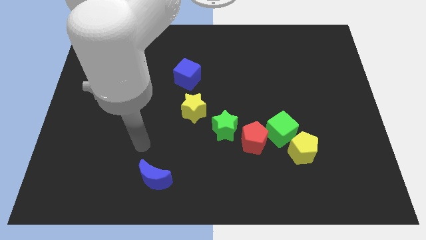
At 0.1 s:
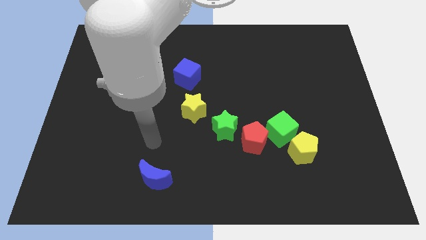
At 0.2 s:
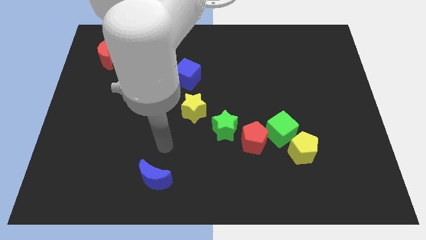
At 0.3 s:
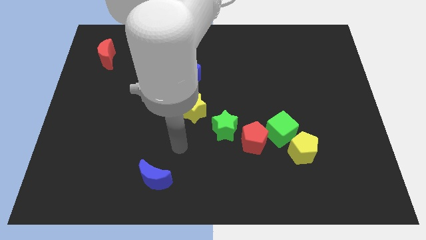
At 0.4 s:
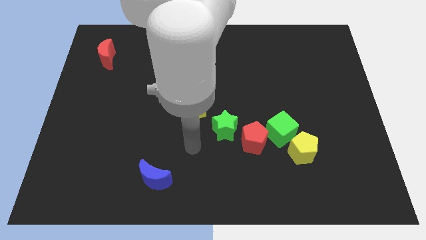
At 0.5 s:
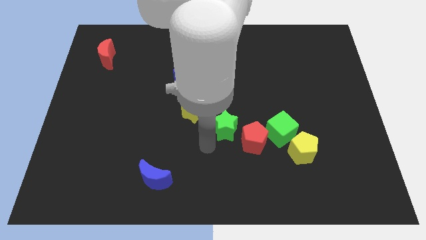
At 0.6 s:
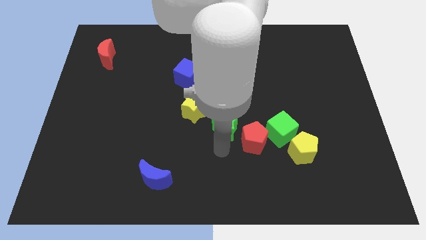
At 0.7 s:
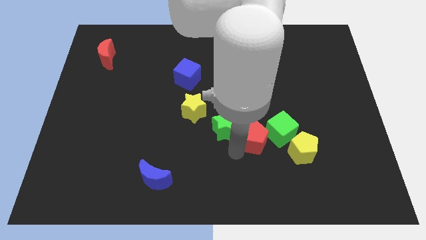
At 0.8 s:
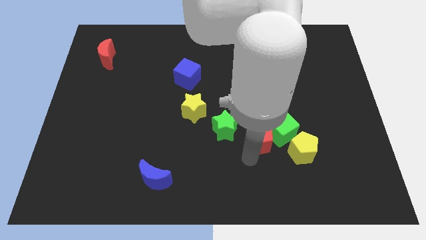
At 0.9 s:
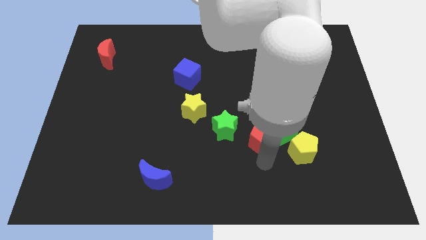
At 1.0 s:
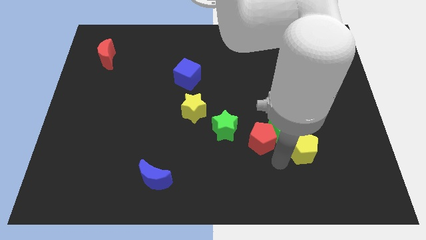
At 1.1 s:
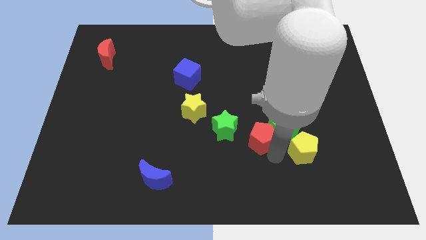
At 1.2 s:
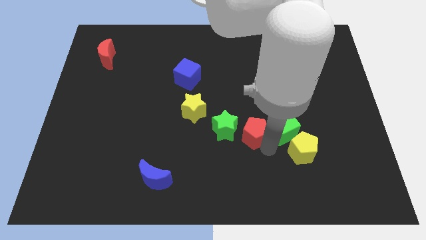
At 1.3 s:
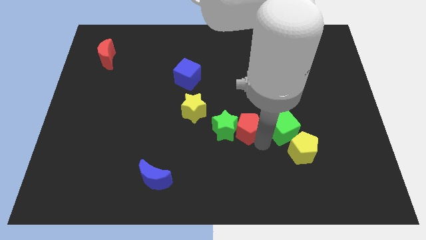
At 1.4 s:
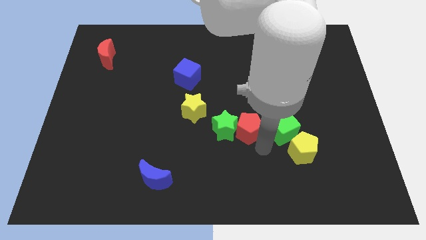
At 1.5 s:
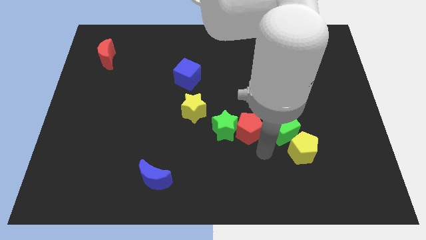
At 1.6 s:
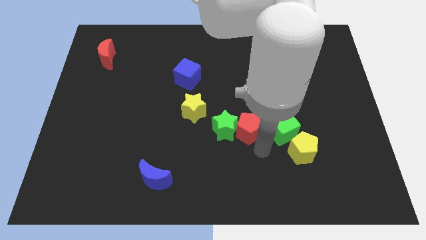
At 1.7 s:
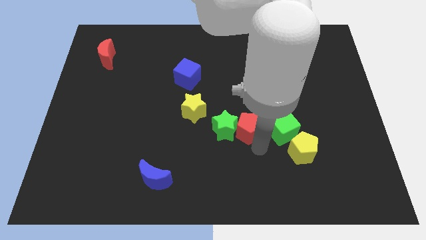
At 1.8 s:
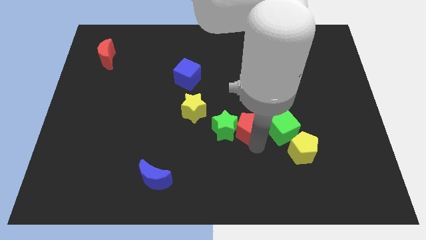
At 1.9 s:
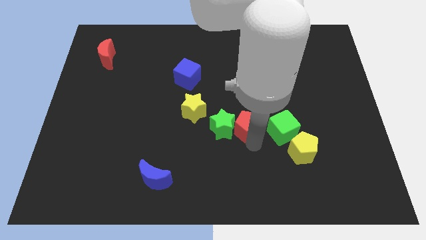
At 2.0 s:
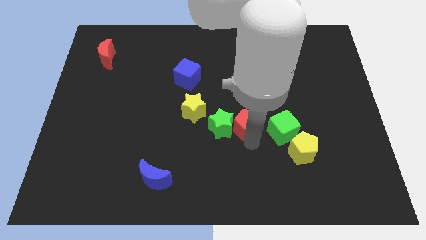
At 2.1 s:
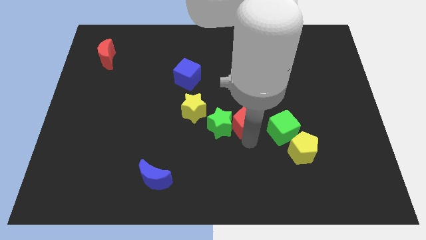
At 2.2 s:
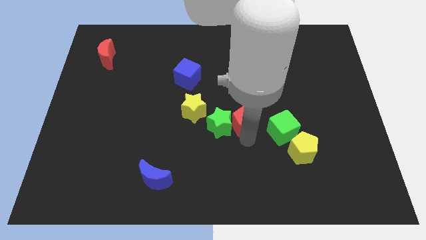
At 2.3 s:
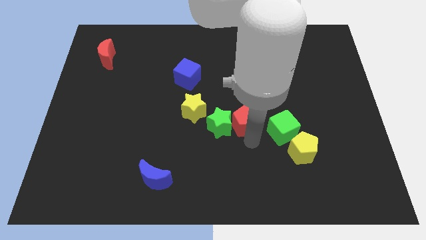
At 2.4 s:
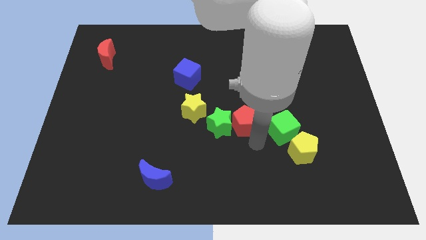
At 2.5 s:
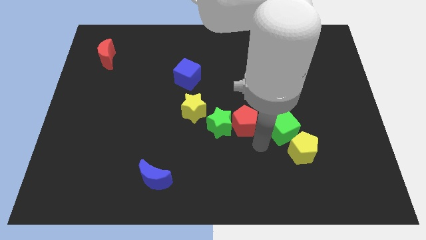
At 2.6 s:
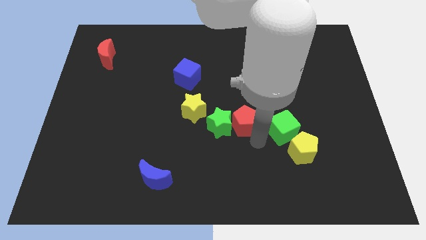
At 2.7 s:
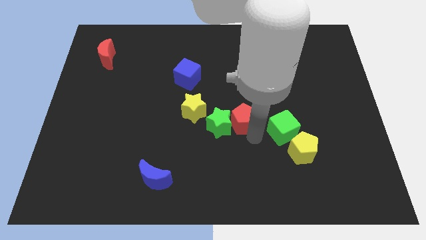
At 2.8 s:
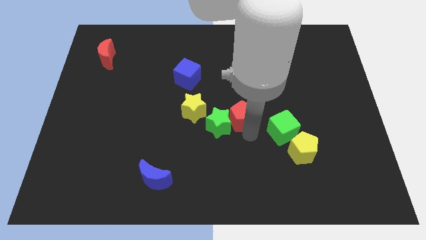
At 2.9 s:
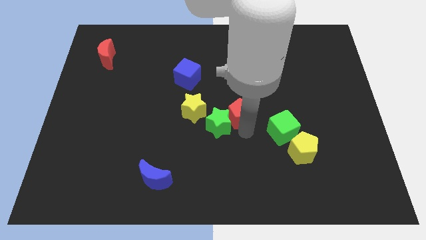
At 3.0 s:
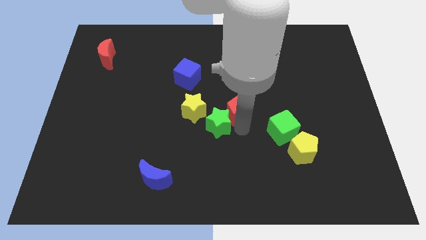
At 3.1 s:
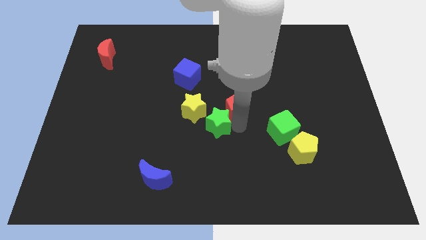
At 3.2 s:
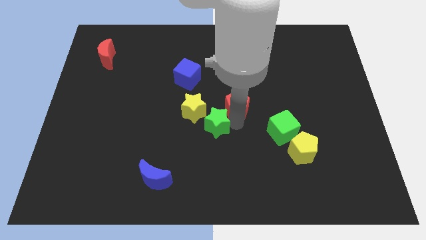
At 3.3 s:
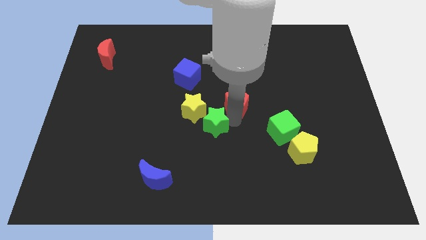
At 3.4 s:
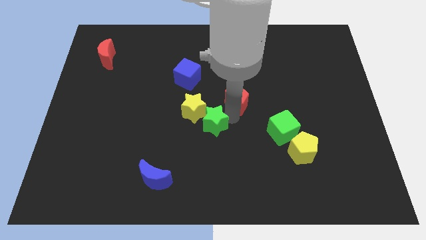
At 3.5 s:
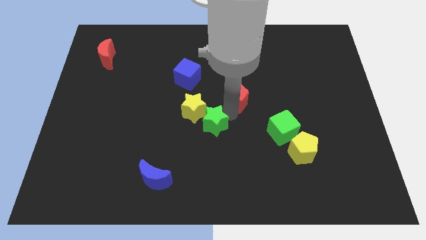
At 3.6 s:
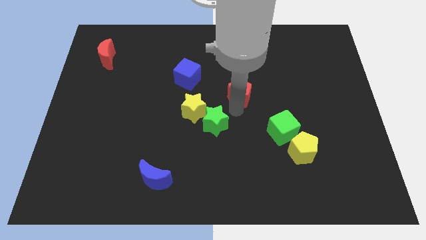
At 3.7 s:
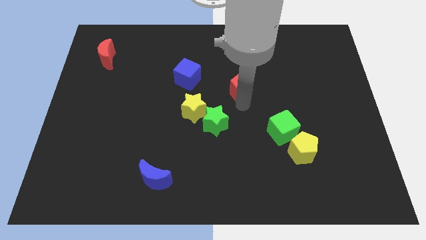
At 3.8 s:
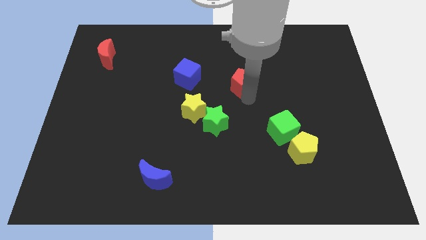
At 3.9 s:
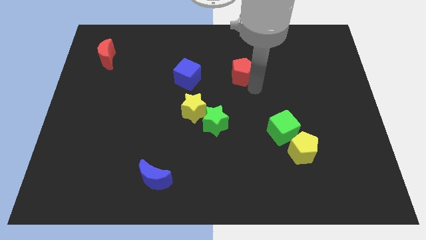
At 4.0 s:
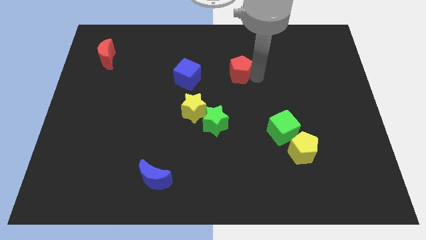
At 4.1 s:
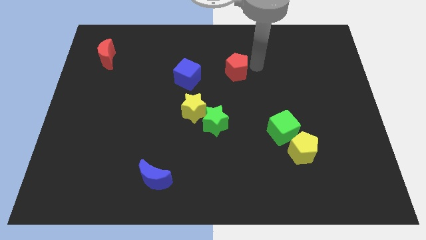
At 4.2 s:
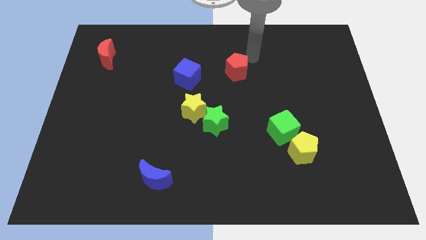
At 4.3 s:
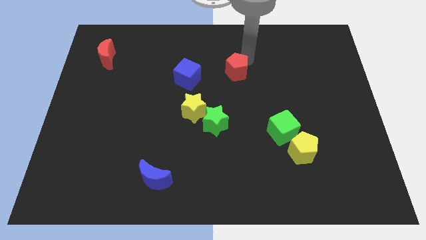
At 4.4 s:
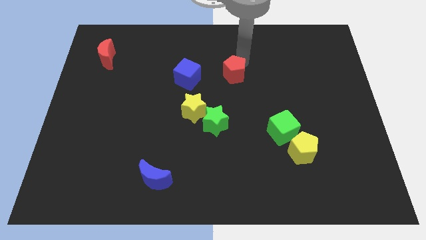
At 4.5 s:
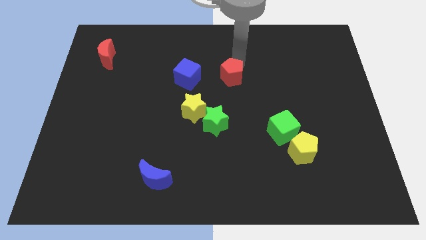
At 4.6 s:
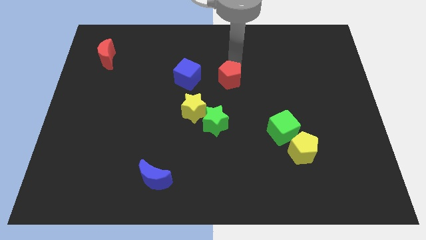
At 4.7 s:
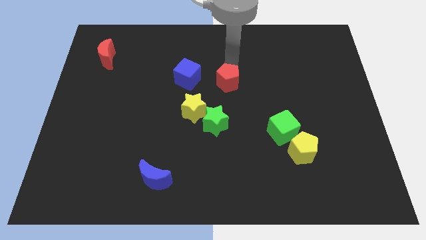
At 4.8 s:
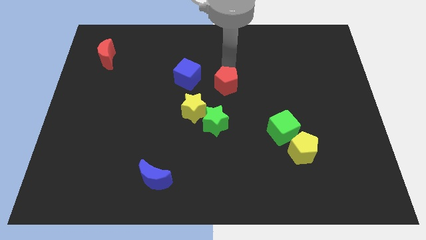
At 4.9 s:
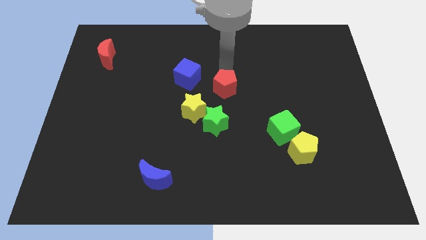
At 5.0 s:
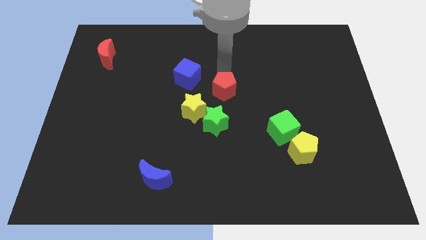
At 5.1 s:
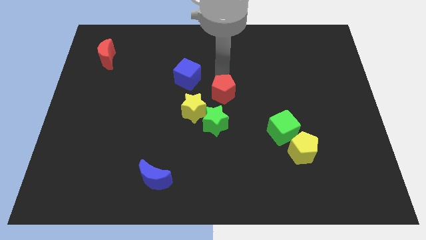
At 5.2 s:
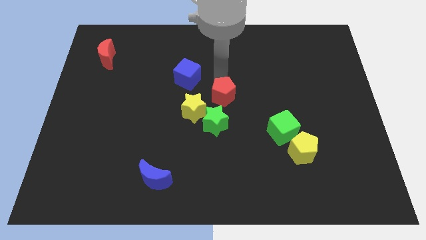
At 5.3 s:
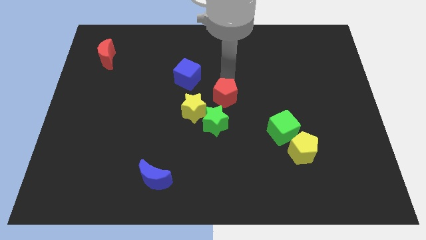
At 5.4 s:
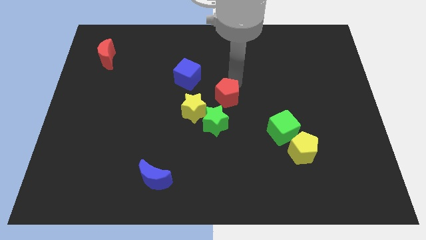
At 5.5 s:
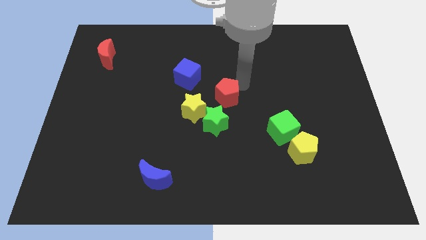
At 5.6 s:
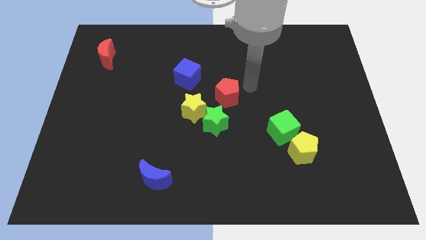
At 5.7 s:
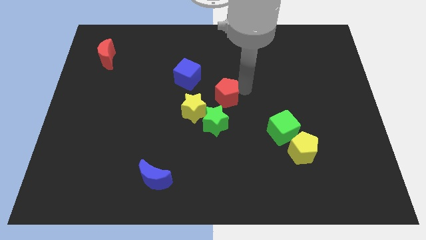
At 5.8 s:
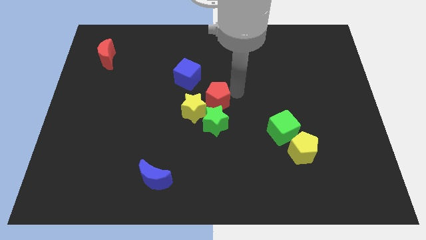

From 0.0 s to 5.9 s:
push the red pentagon close to the yellow star

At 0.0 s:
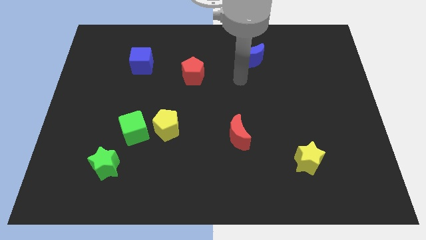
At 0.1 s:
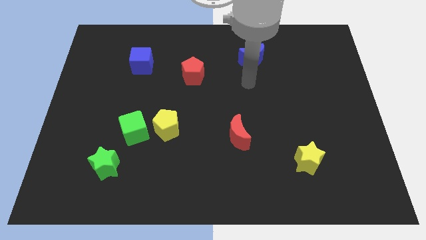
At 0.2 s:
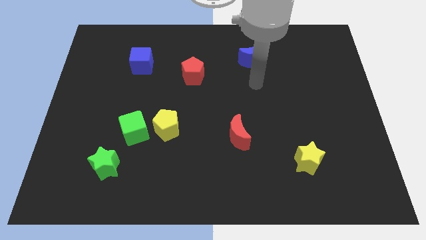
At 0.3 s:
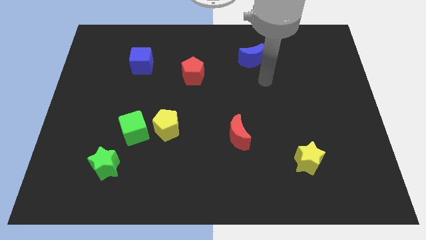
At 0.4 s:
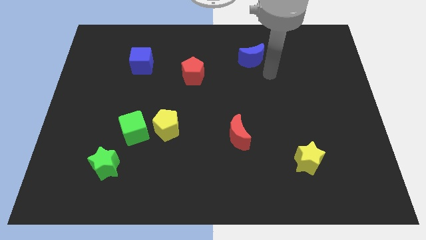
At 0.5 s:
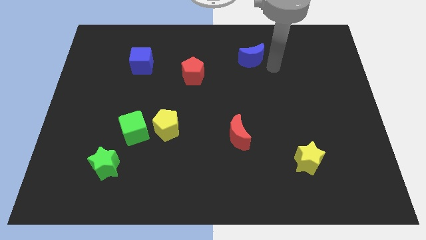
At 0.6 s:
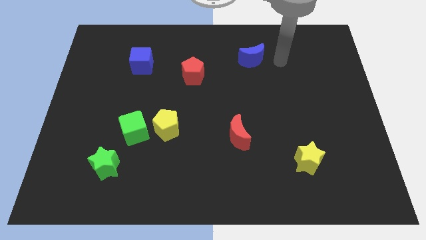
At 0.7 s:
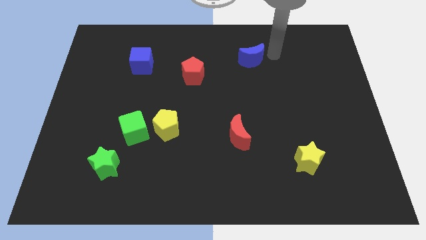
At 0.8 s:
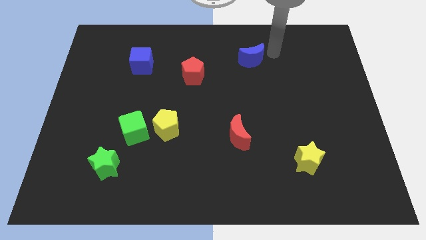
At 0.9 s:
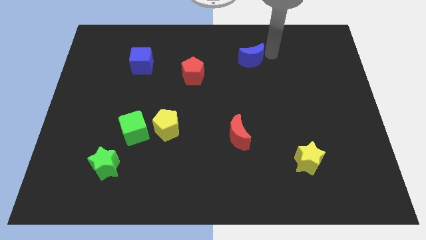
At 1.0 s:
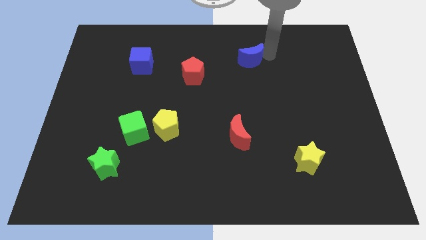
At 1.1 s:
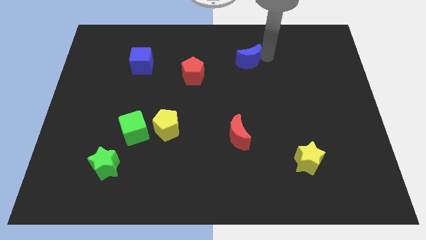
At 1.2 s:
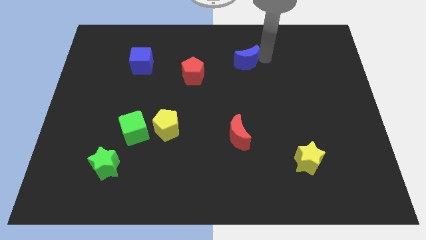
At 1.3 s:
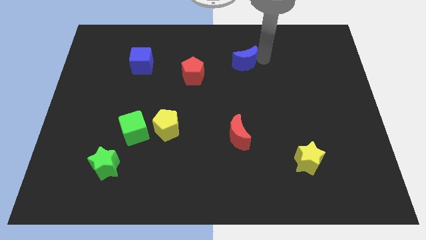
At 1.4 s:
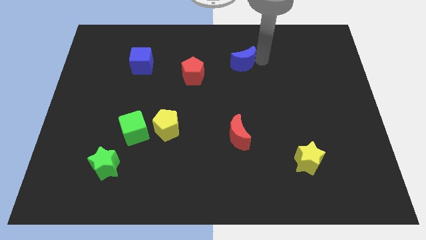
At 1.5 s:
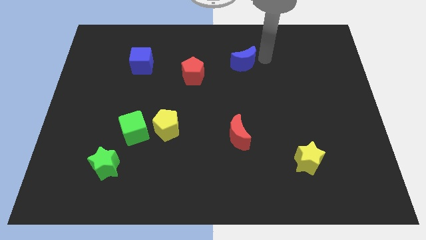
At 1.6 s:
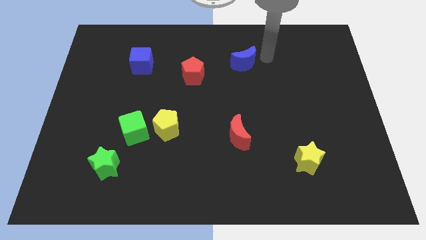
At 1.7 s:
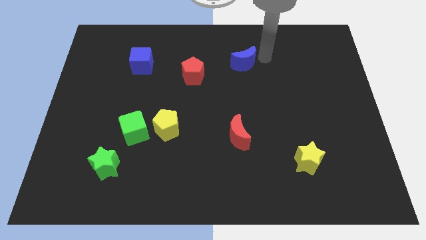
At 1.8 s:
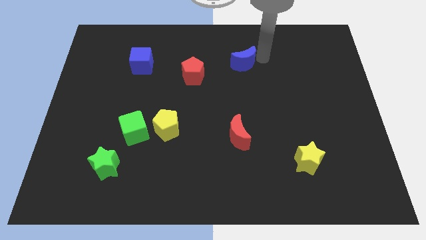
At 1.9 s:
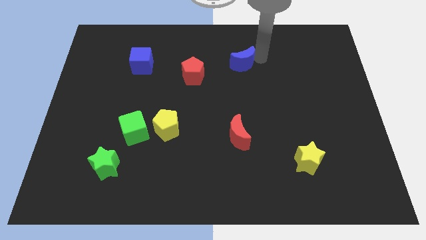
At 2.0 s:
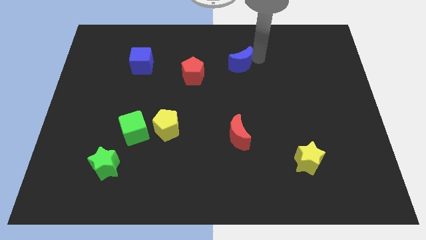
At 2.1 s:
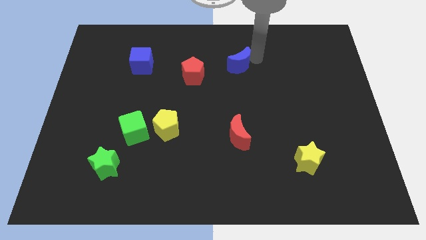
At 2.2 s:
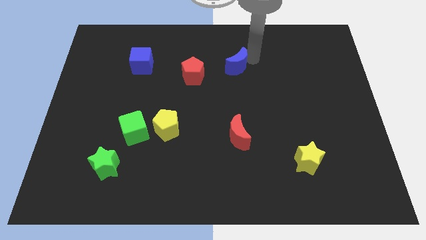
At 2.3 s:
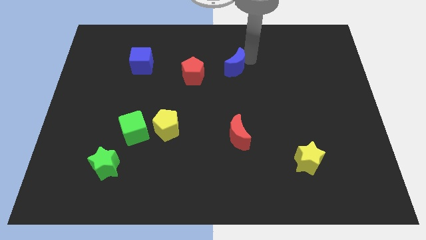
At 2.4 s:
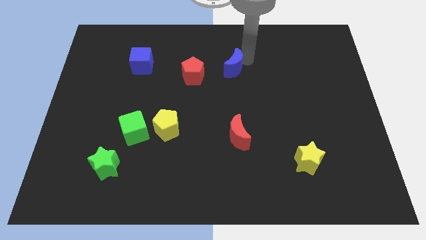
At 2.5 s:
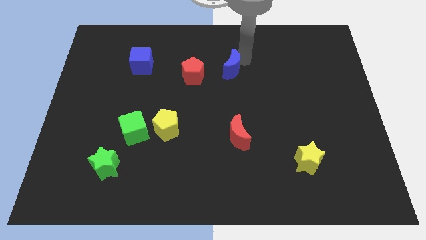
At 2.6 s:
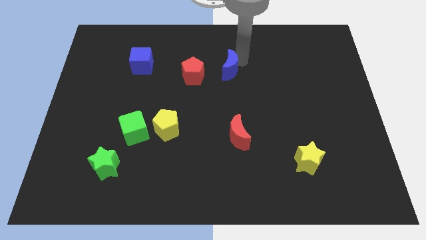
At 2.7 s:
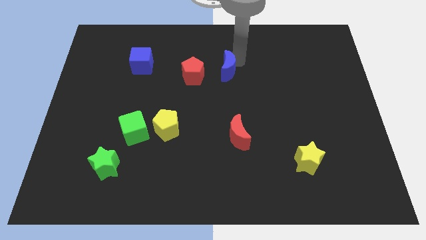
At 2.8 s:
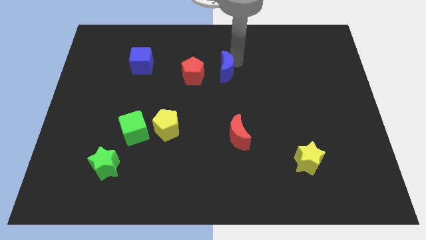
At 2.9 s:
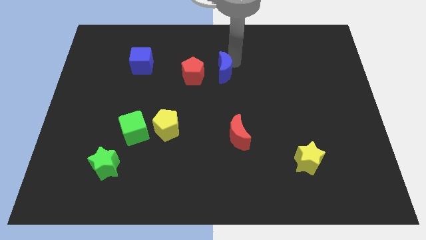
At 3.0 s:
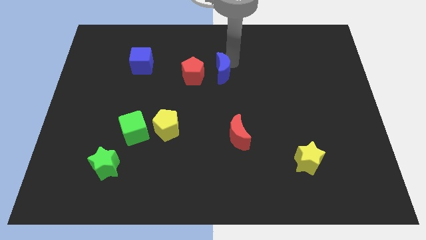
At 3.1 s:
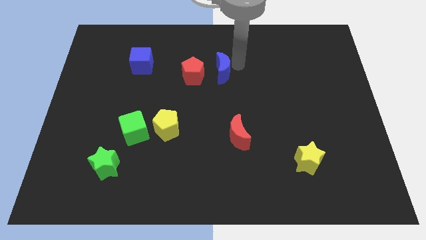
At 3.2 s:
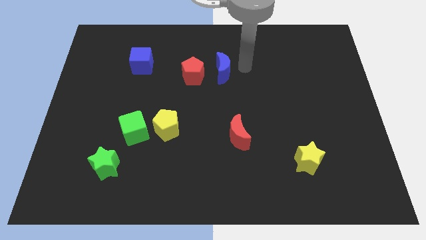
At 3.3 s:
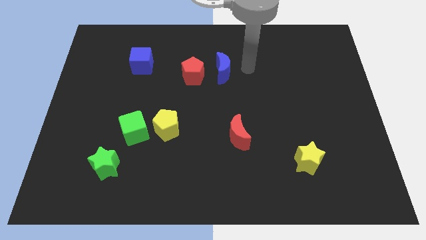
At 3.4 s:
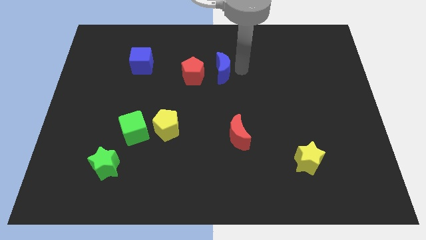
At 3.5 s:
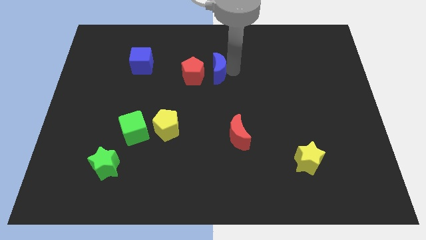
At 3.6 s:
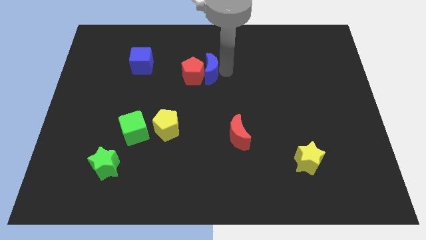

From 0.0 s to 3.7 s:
move the blue moon close to the red pentagon
